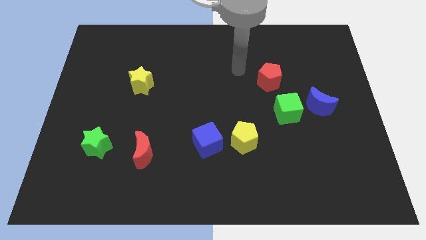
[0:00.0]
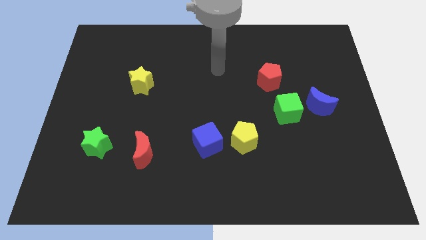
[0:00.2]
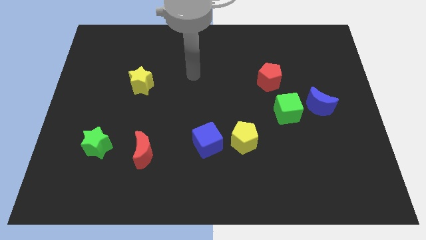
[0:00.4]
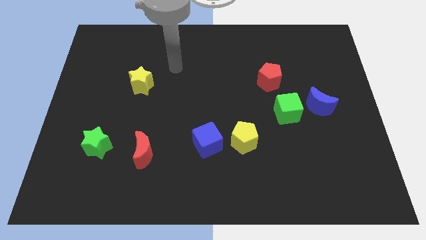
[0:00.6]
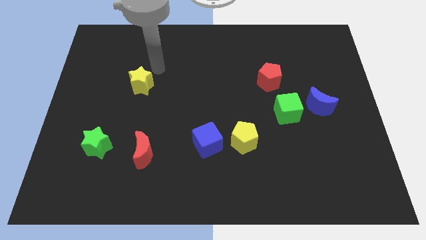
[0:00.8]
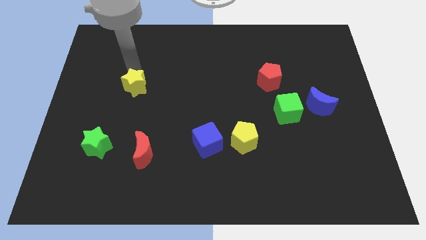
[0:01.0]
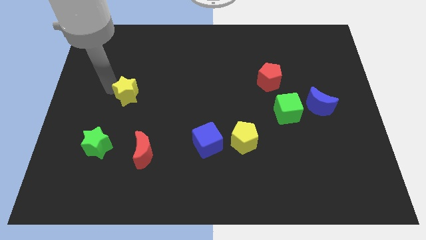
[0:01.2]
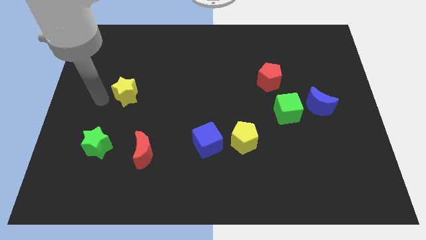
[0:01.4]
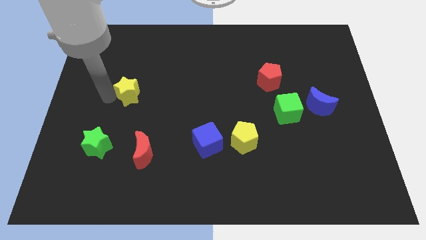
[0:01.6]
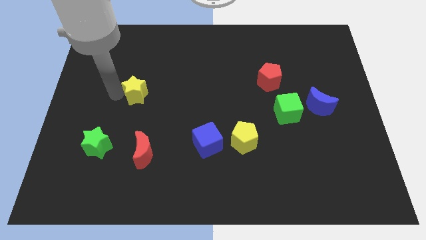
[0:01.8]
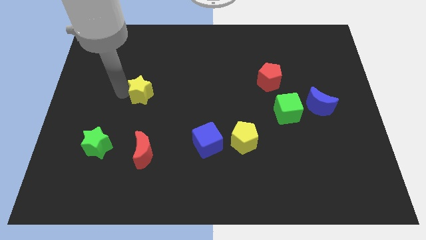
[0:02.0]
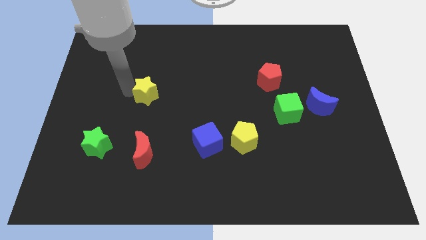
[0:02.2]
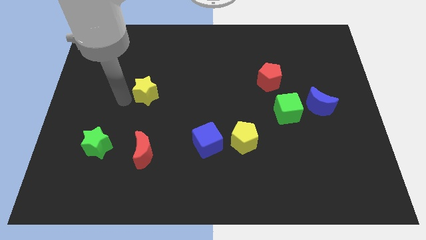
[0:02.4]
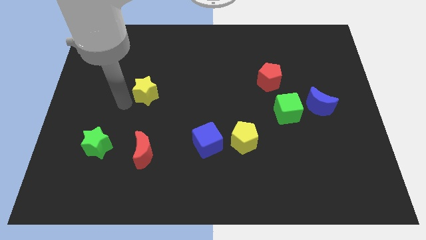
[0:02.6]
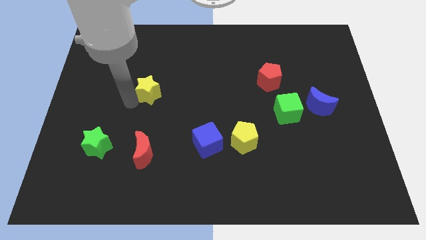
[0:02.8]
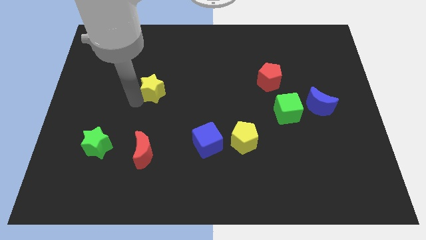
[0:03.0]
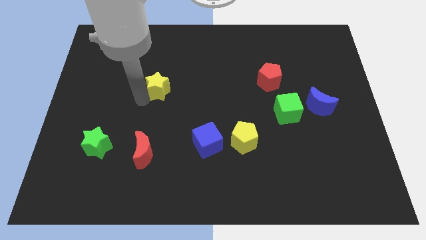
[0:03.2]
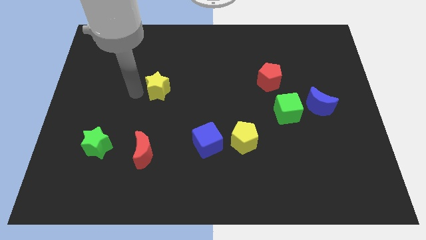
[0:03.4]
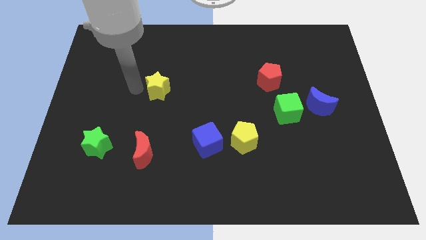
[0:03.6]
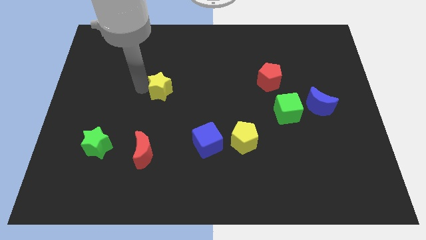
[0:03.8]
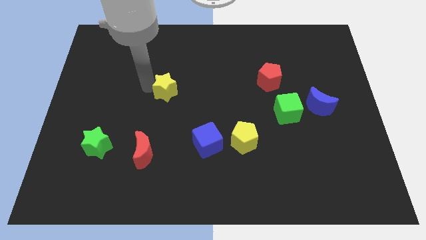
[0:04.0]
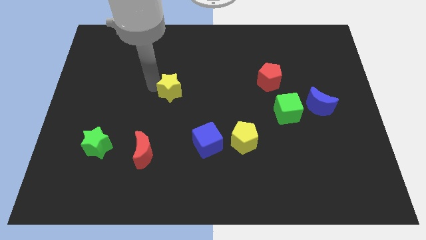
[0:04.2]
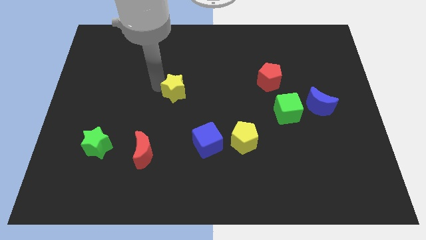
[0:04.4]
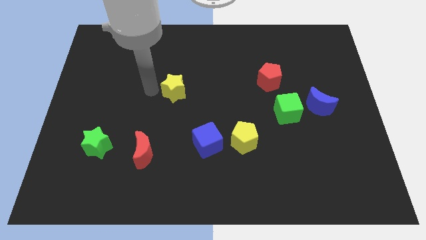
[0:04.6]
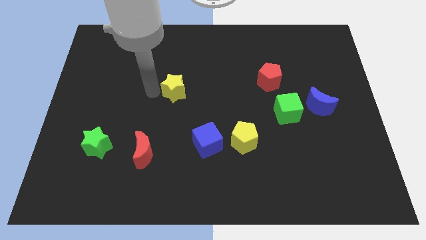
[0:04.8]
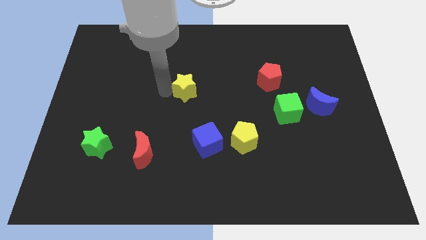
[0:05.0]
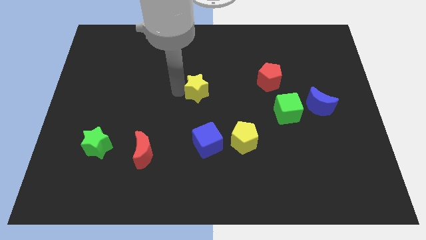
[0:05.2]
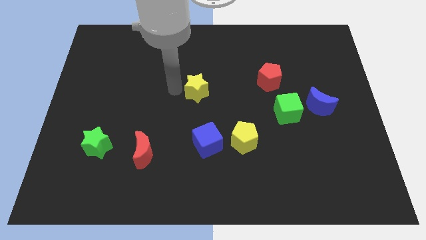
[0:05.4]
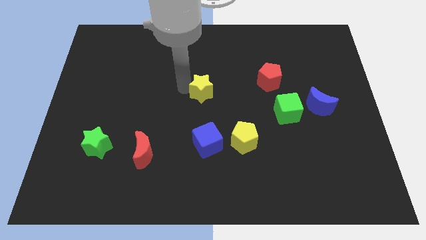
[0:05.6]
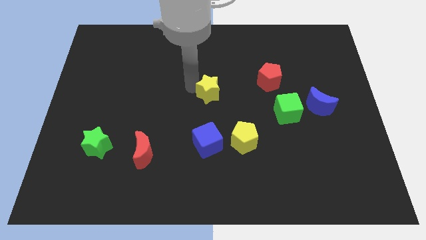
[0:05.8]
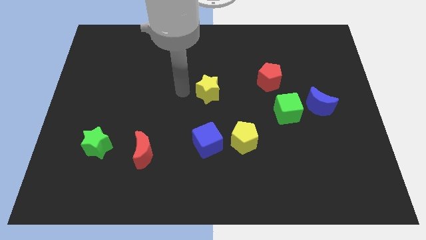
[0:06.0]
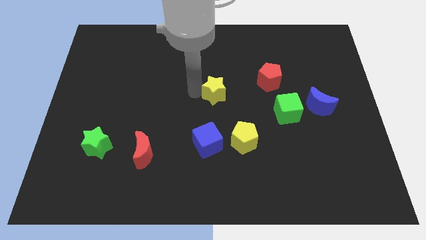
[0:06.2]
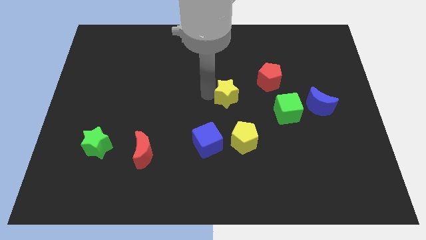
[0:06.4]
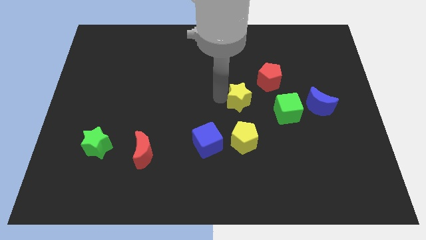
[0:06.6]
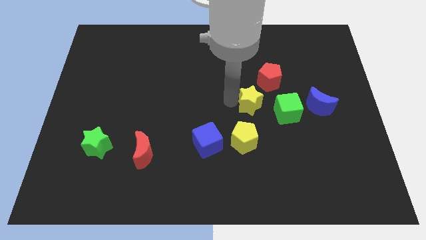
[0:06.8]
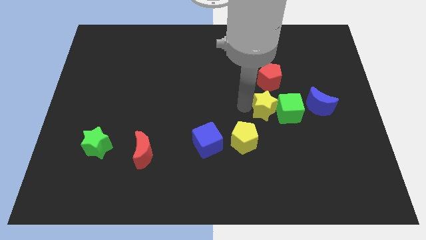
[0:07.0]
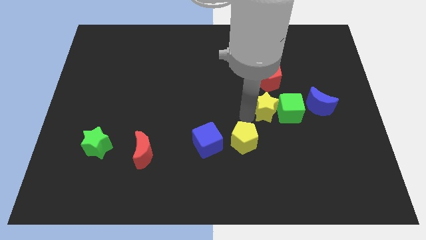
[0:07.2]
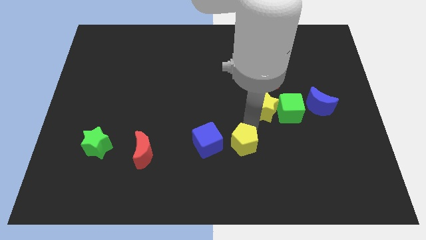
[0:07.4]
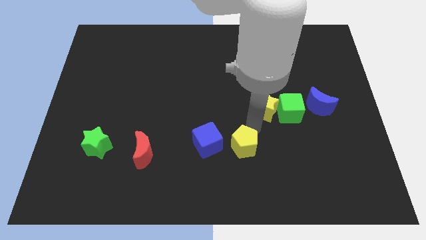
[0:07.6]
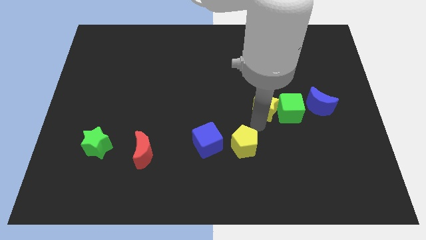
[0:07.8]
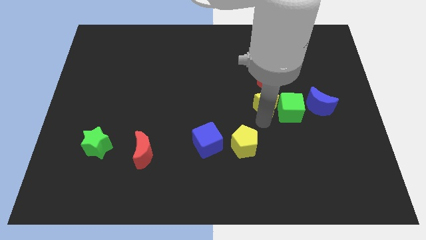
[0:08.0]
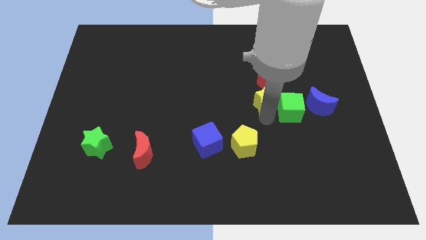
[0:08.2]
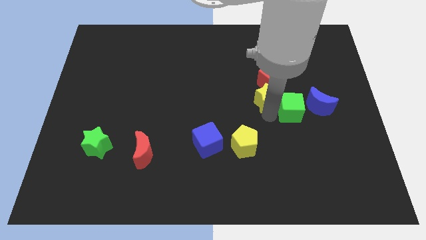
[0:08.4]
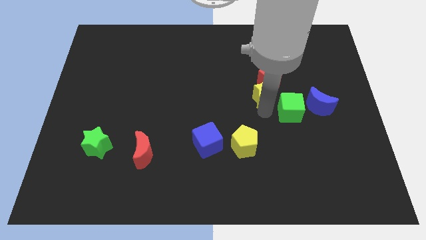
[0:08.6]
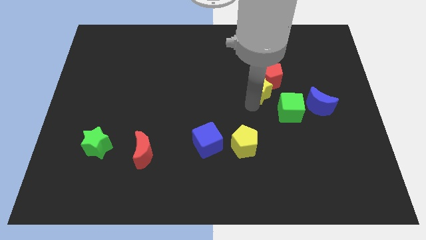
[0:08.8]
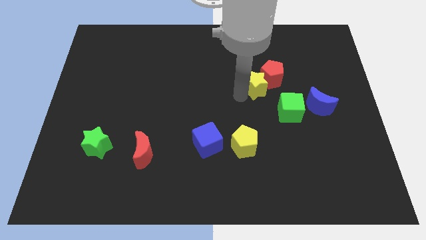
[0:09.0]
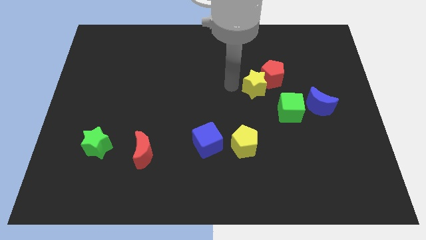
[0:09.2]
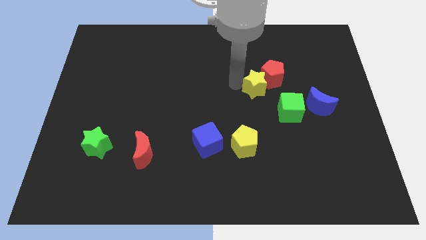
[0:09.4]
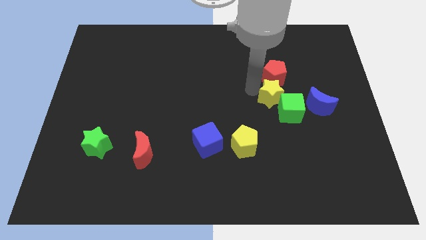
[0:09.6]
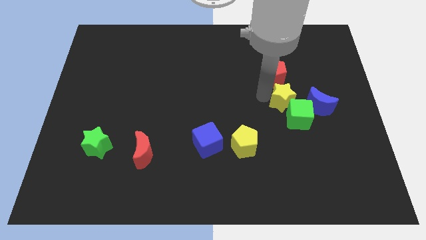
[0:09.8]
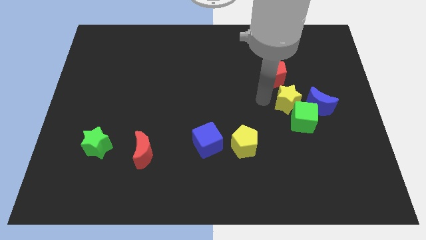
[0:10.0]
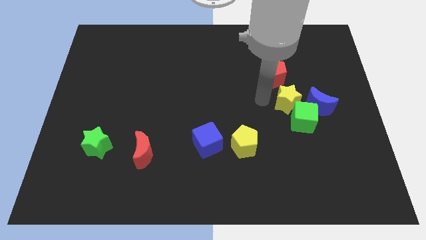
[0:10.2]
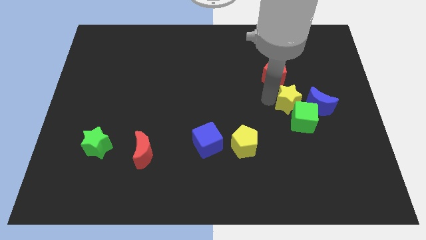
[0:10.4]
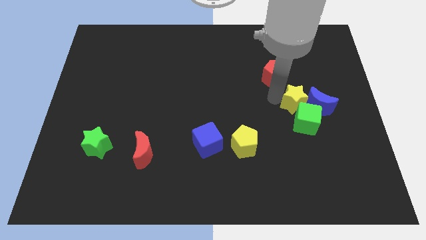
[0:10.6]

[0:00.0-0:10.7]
push the yellow star next to the blue moon

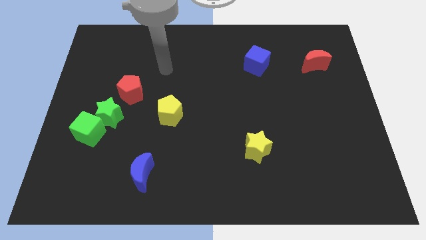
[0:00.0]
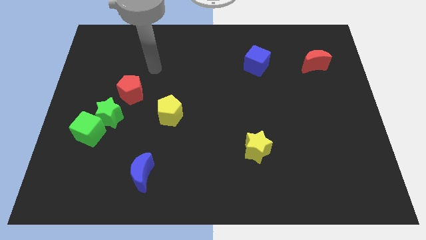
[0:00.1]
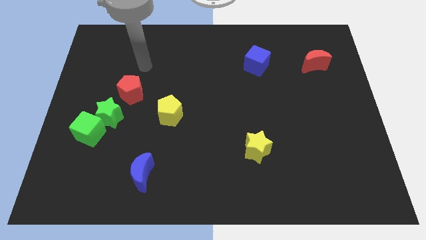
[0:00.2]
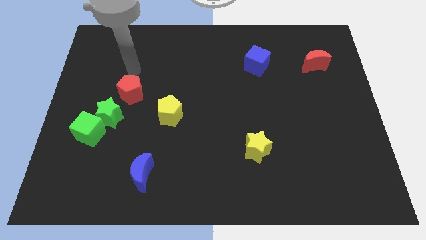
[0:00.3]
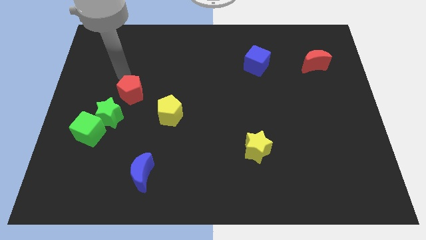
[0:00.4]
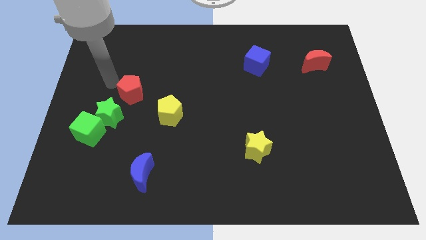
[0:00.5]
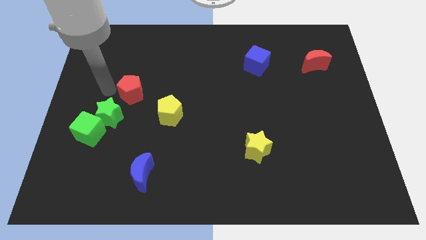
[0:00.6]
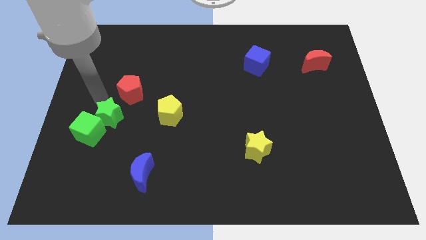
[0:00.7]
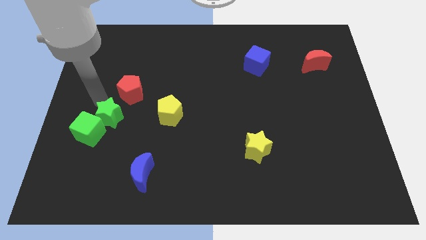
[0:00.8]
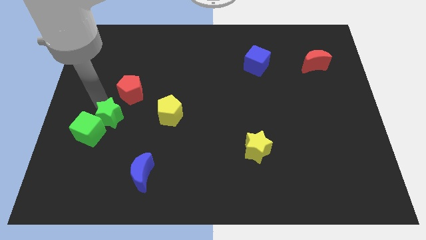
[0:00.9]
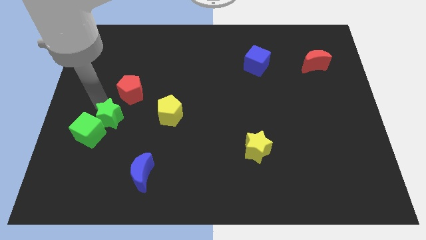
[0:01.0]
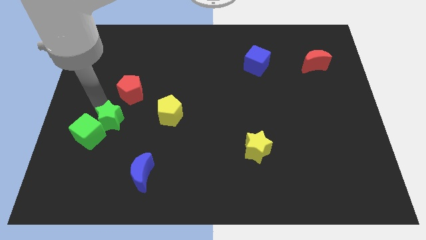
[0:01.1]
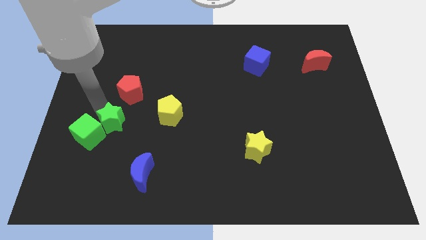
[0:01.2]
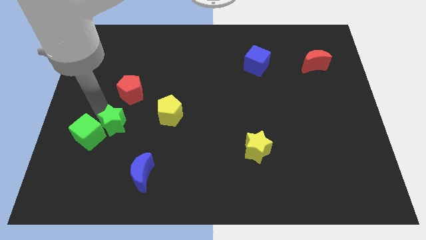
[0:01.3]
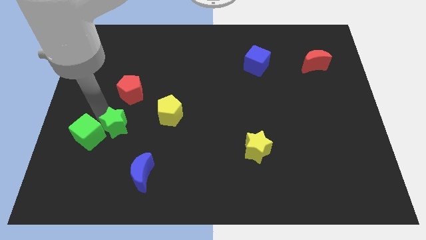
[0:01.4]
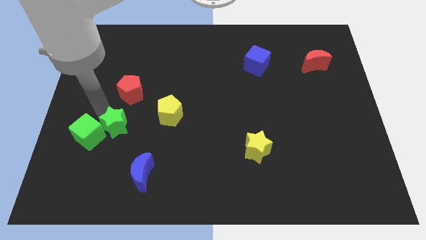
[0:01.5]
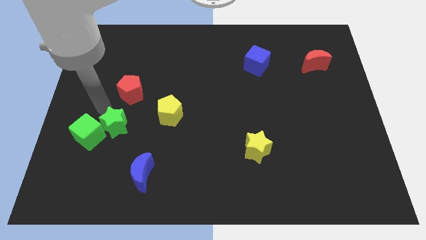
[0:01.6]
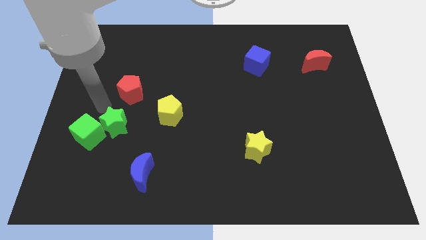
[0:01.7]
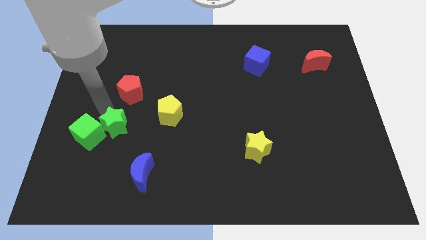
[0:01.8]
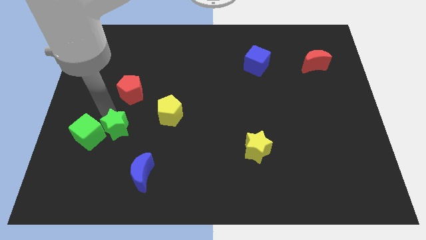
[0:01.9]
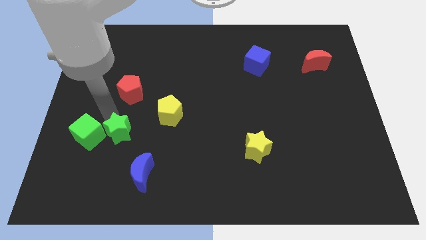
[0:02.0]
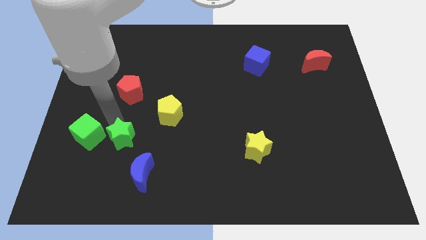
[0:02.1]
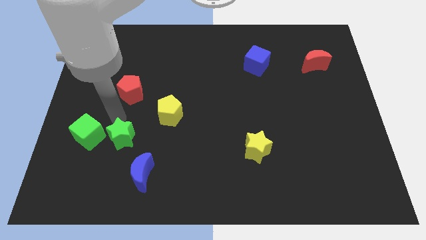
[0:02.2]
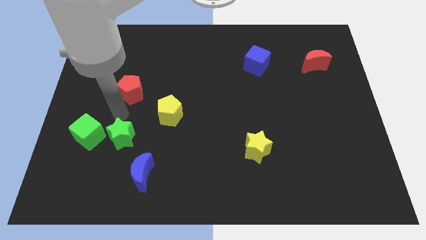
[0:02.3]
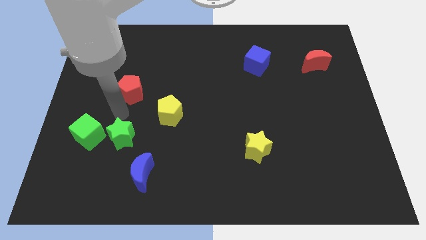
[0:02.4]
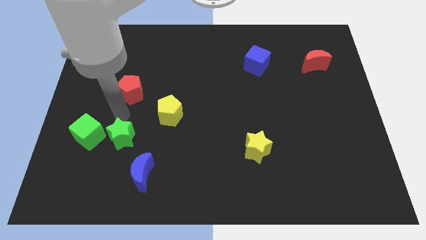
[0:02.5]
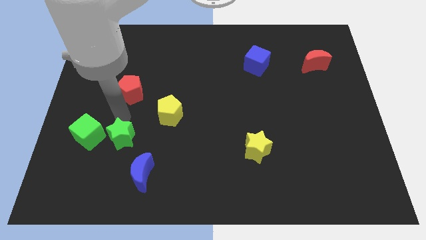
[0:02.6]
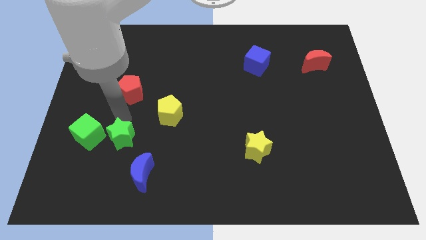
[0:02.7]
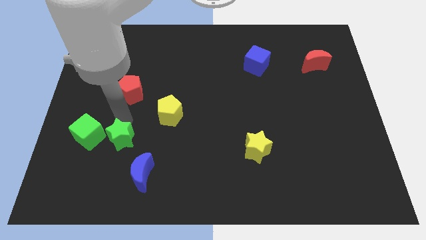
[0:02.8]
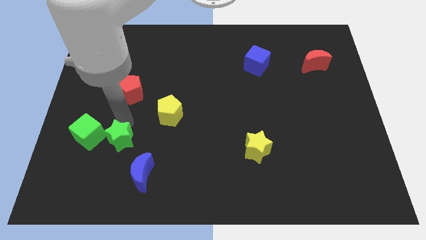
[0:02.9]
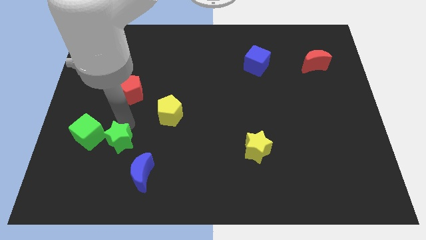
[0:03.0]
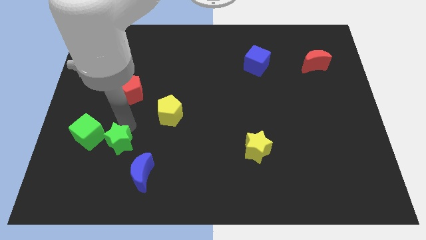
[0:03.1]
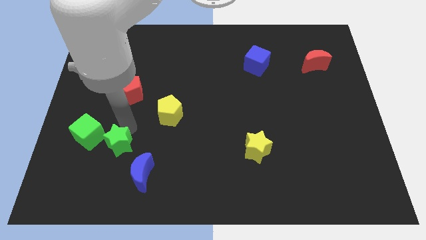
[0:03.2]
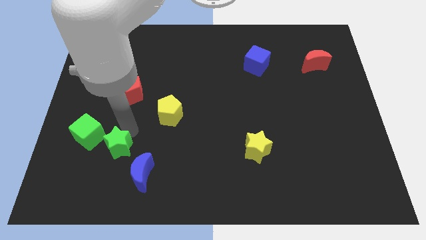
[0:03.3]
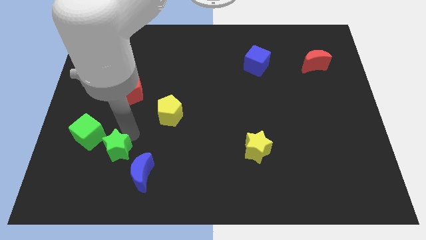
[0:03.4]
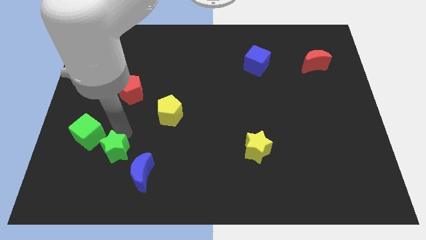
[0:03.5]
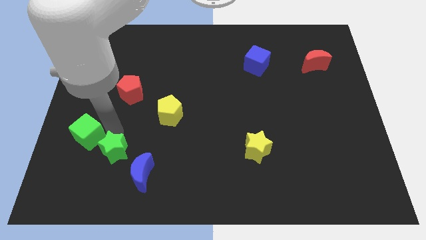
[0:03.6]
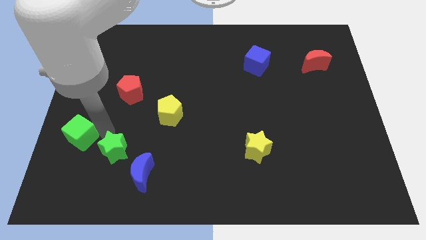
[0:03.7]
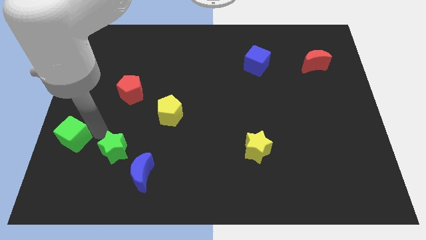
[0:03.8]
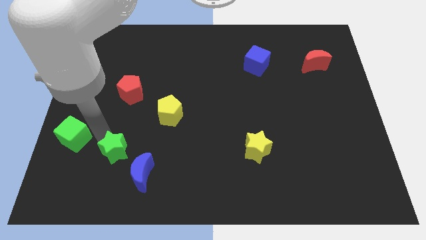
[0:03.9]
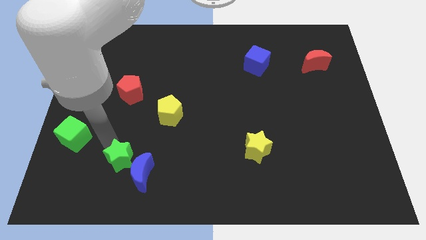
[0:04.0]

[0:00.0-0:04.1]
slide the green star to the blue moon
